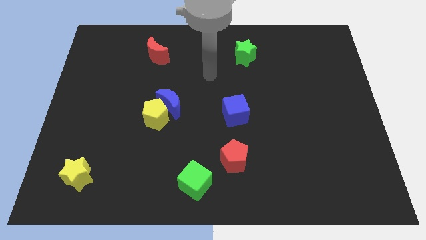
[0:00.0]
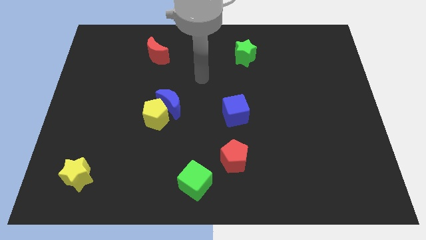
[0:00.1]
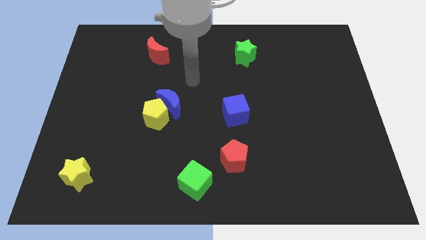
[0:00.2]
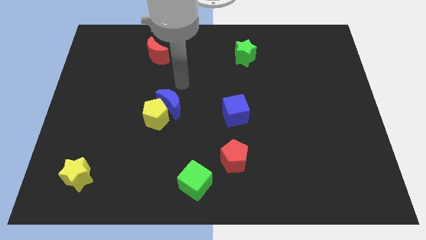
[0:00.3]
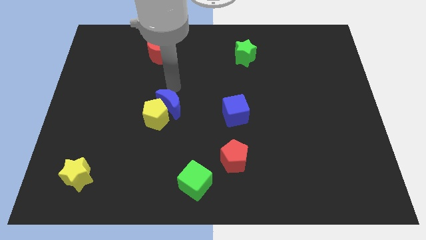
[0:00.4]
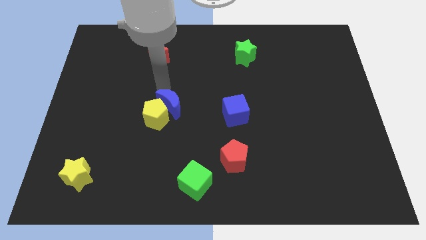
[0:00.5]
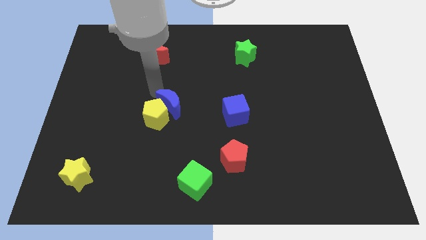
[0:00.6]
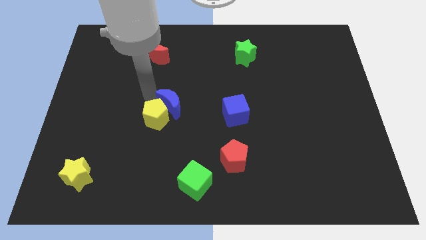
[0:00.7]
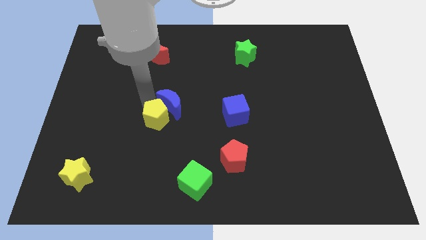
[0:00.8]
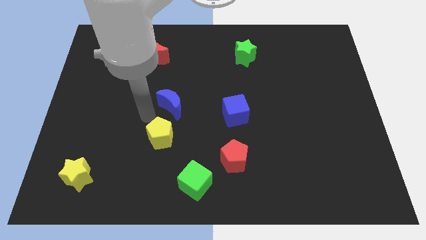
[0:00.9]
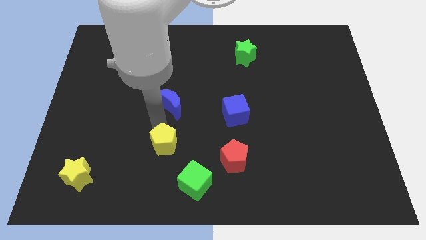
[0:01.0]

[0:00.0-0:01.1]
pull the blue moon apart from the yellow pentagon

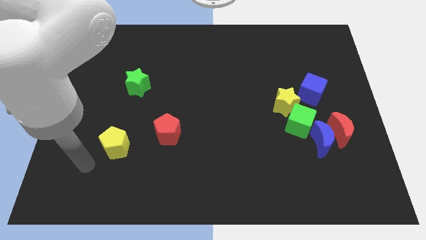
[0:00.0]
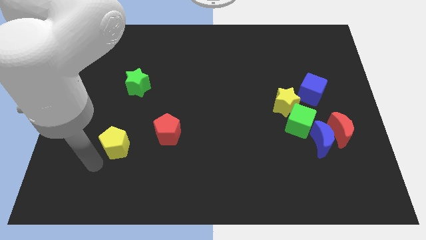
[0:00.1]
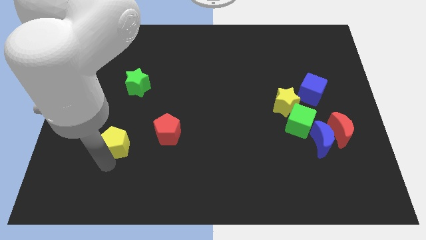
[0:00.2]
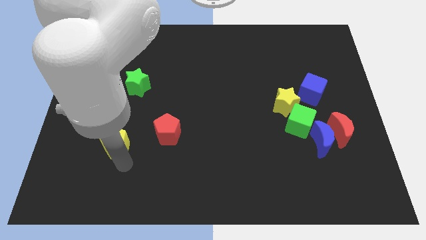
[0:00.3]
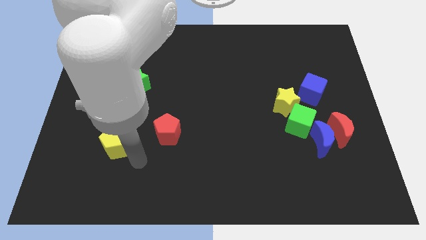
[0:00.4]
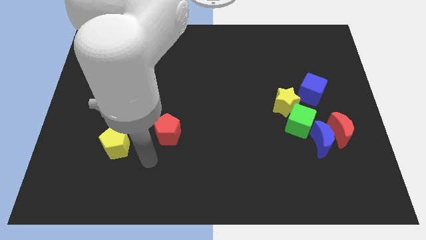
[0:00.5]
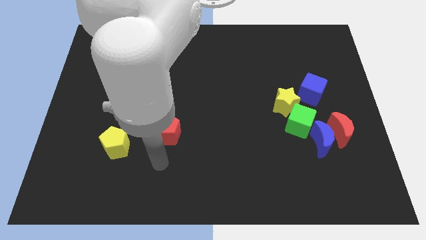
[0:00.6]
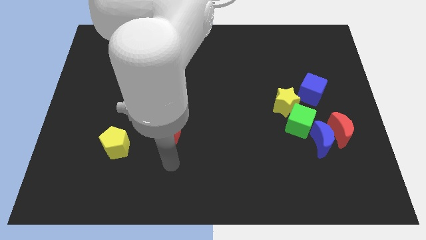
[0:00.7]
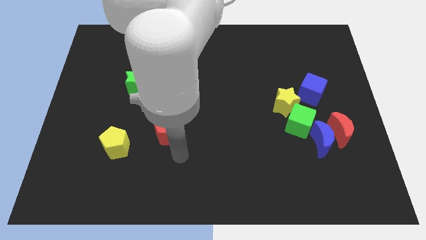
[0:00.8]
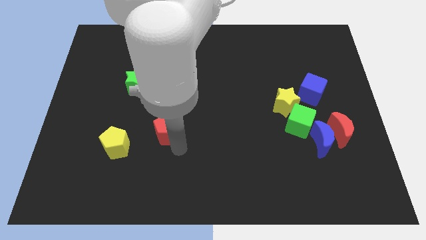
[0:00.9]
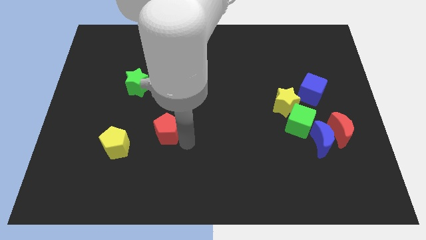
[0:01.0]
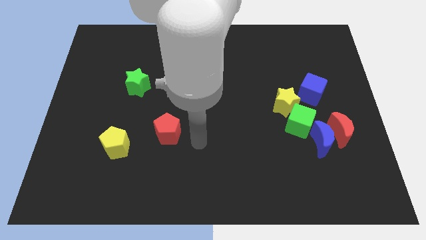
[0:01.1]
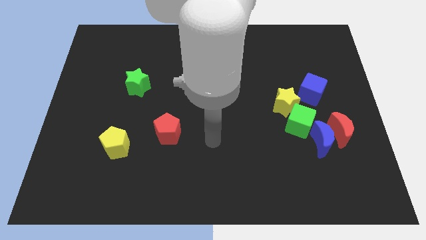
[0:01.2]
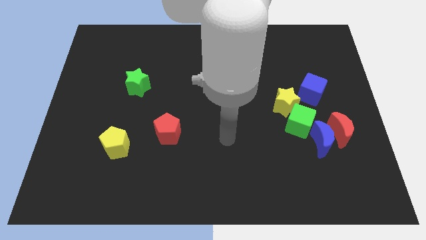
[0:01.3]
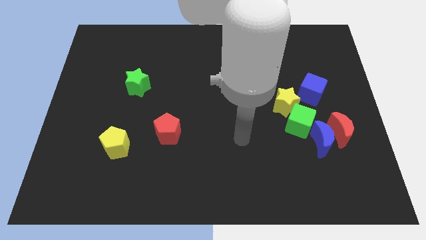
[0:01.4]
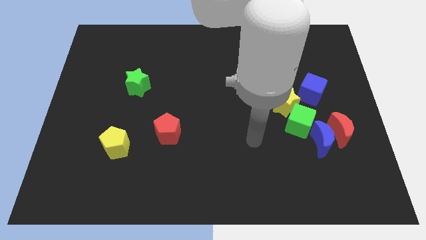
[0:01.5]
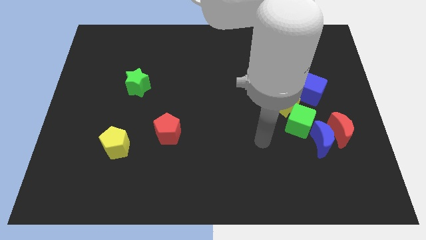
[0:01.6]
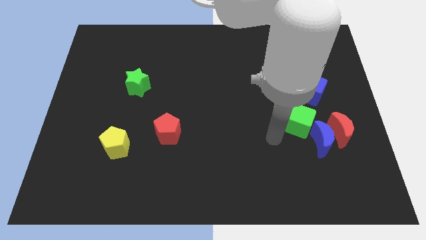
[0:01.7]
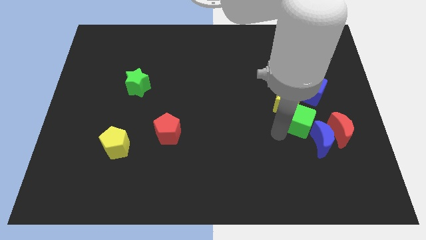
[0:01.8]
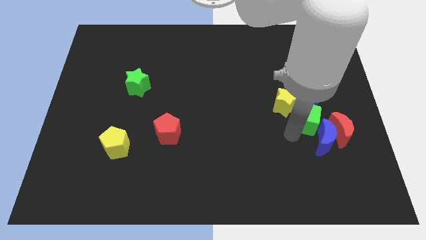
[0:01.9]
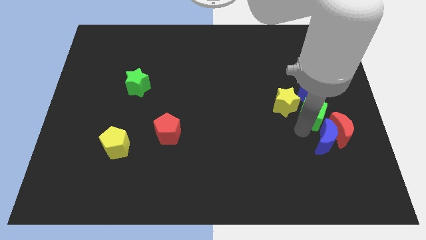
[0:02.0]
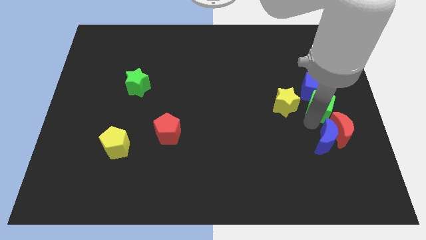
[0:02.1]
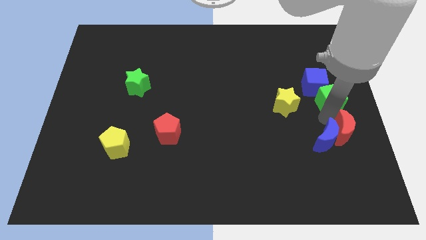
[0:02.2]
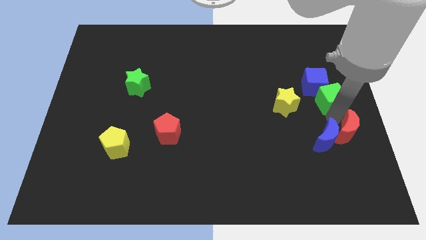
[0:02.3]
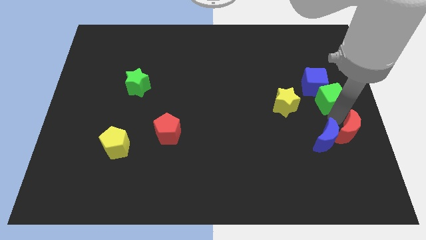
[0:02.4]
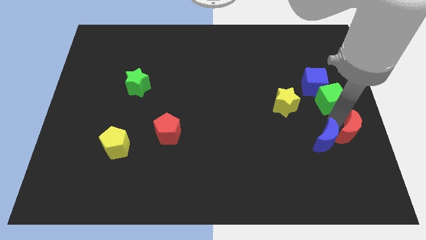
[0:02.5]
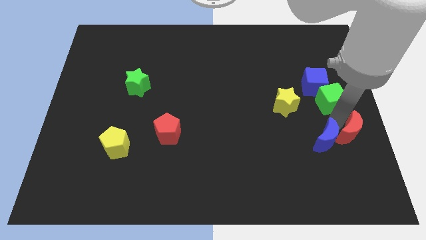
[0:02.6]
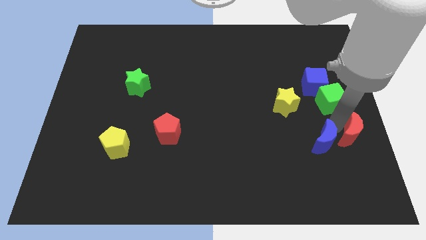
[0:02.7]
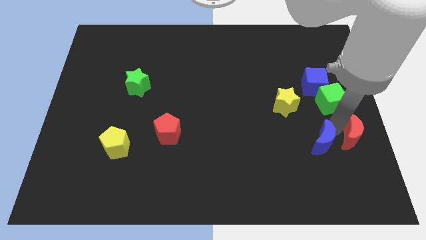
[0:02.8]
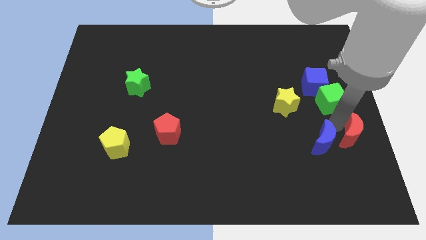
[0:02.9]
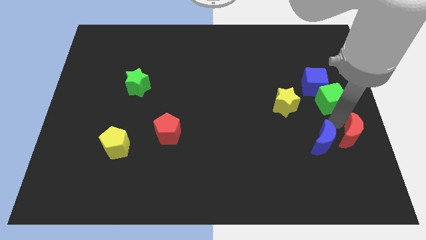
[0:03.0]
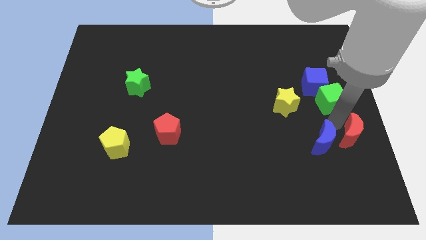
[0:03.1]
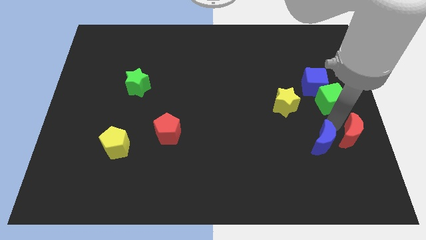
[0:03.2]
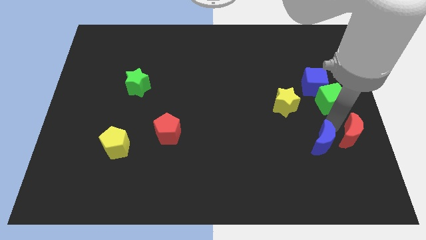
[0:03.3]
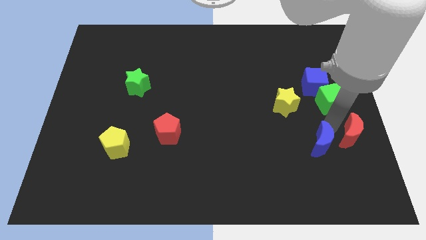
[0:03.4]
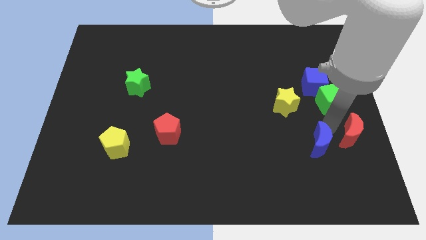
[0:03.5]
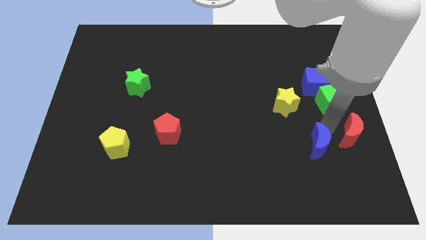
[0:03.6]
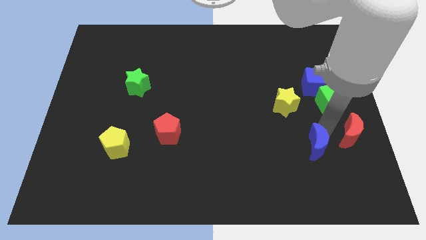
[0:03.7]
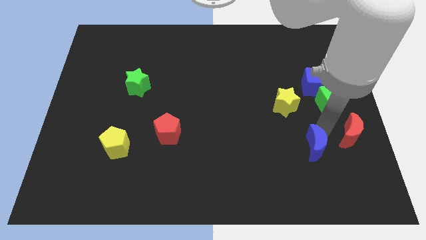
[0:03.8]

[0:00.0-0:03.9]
pull the blue moon apart from the red moon and green cube

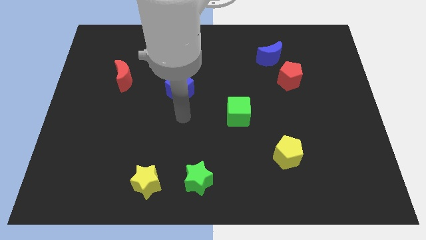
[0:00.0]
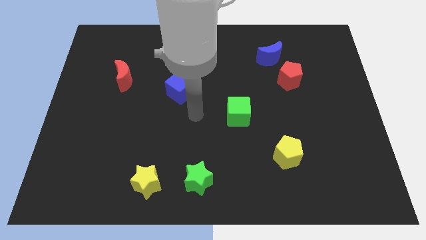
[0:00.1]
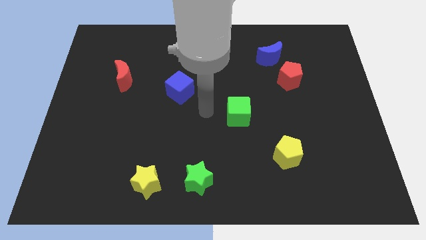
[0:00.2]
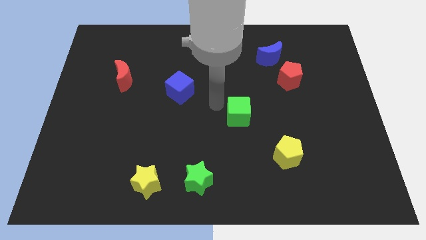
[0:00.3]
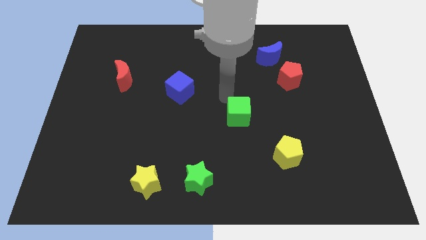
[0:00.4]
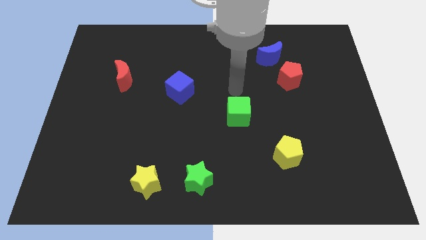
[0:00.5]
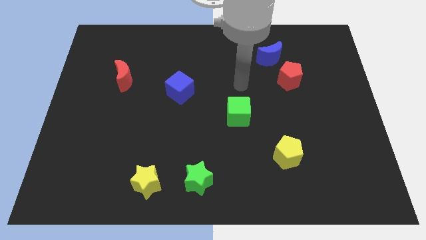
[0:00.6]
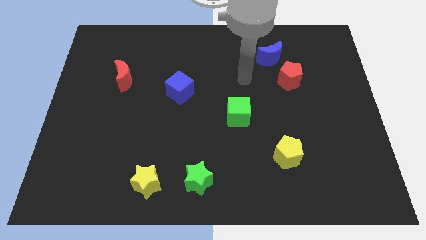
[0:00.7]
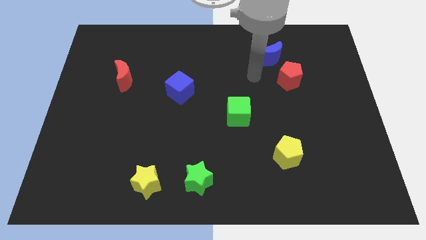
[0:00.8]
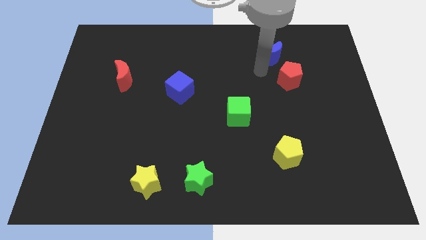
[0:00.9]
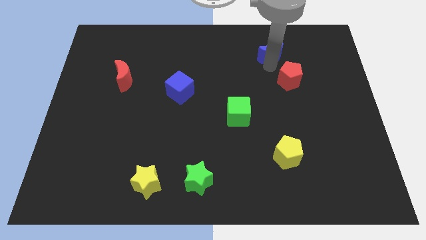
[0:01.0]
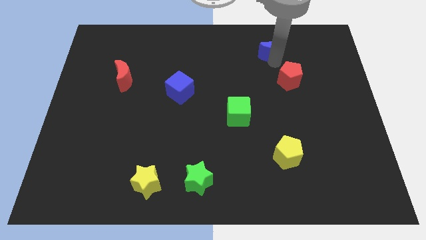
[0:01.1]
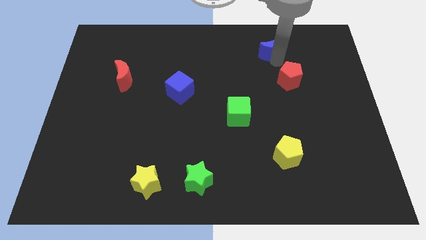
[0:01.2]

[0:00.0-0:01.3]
move the red pentagon away from the blue moon

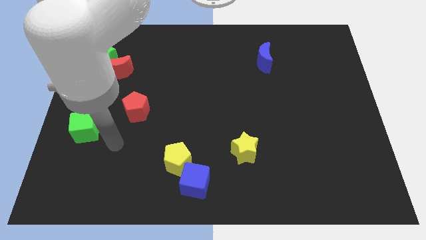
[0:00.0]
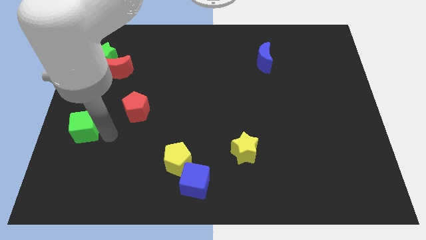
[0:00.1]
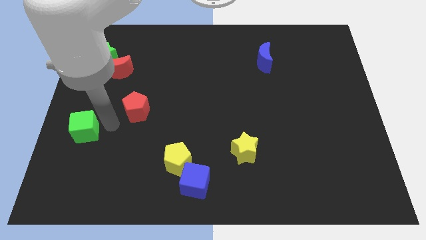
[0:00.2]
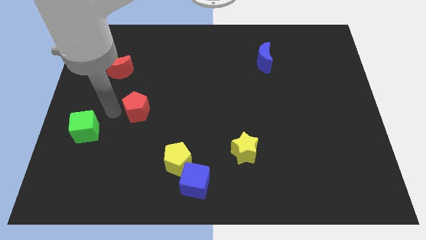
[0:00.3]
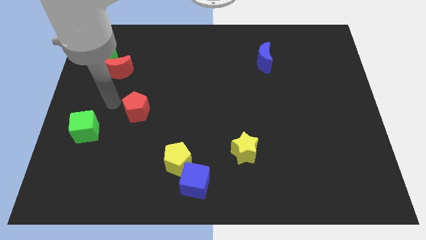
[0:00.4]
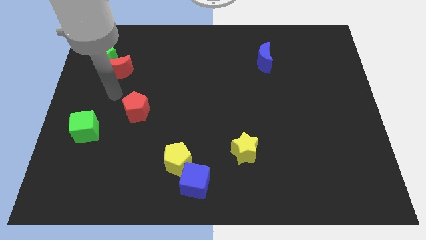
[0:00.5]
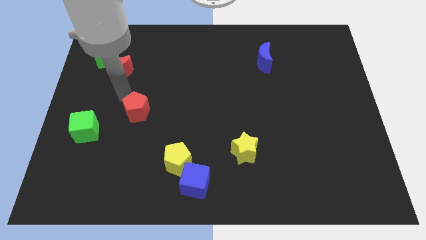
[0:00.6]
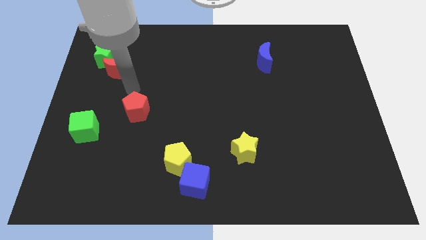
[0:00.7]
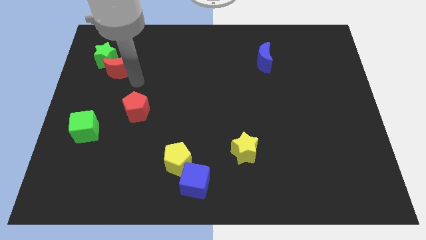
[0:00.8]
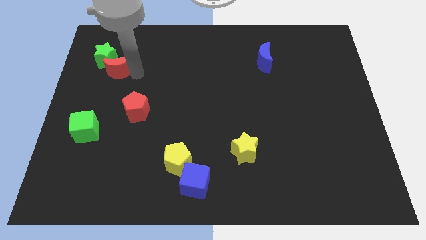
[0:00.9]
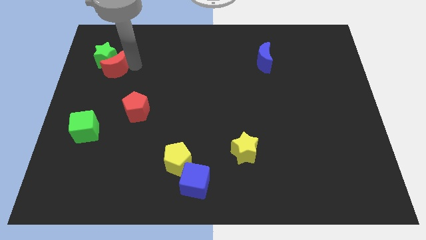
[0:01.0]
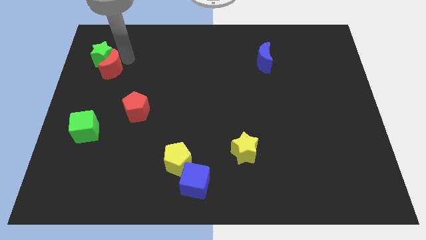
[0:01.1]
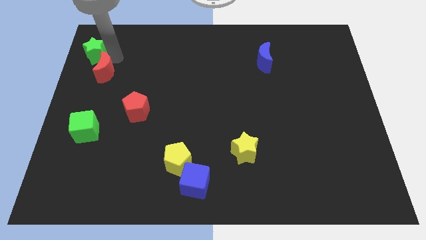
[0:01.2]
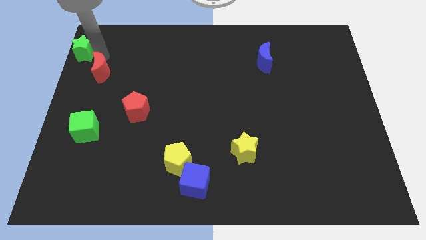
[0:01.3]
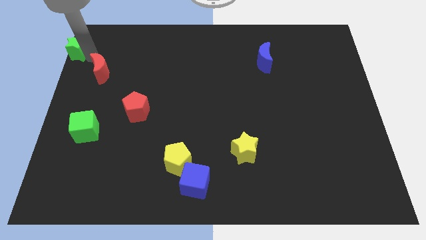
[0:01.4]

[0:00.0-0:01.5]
separate the red moon from the green star

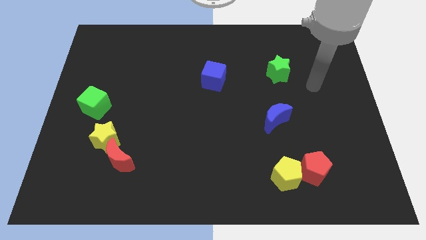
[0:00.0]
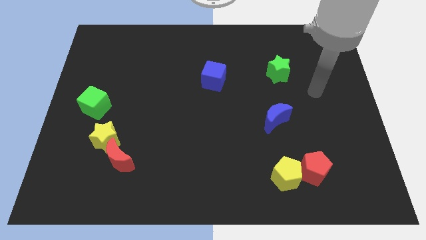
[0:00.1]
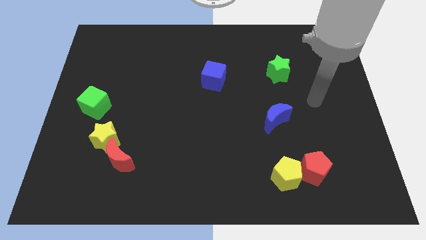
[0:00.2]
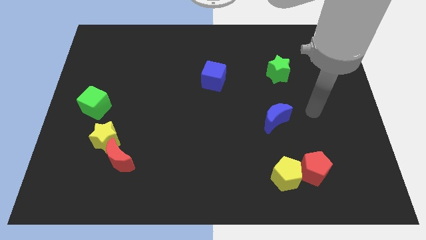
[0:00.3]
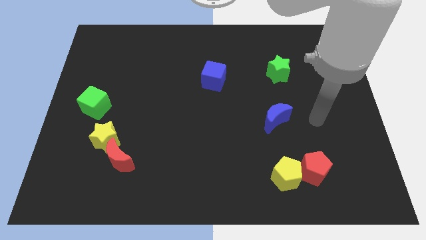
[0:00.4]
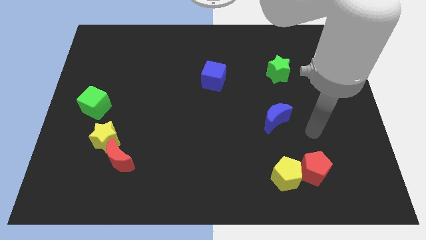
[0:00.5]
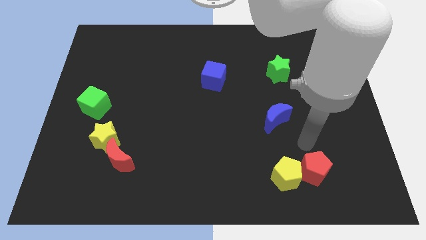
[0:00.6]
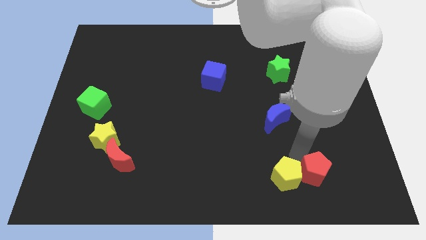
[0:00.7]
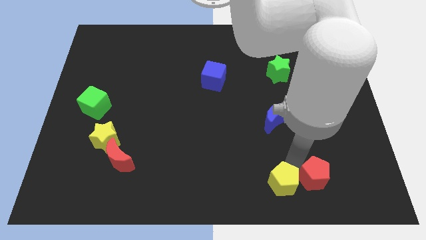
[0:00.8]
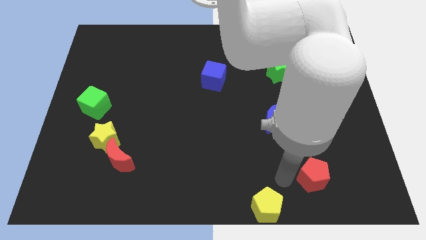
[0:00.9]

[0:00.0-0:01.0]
move the red pentagon away from the yellow pentagon

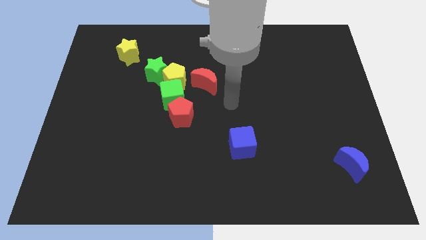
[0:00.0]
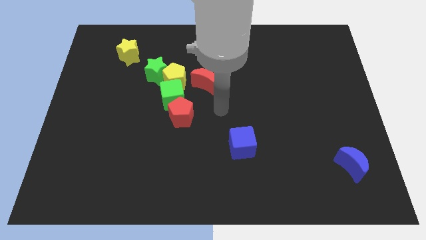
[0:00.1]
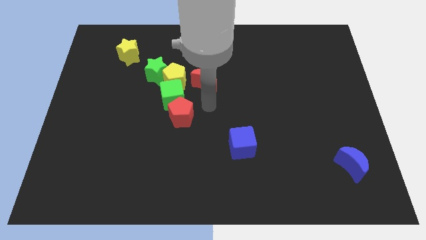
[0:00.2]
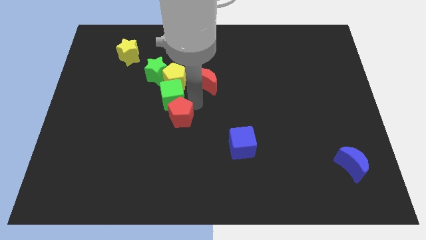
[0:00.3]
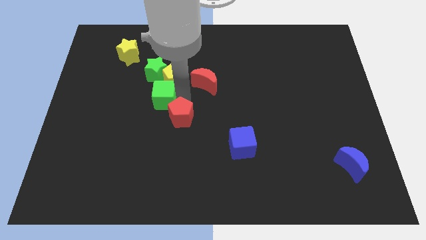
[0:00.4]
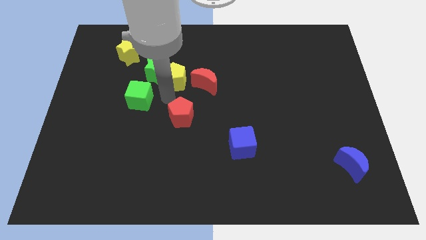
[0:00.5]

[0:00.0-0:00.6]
pull the red pentagon apart from the green cube
